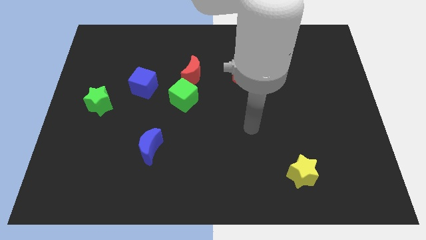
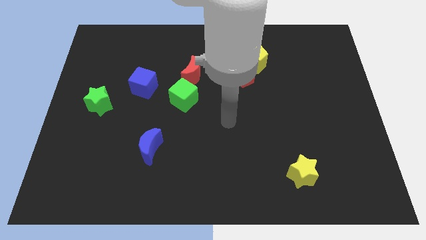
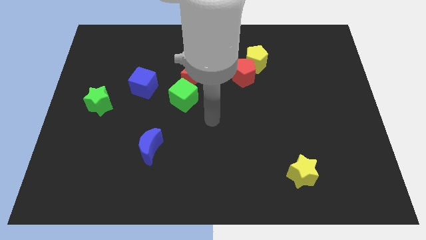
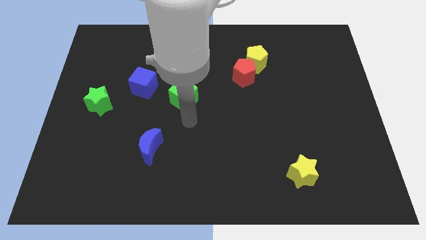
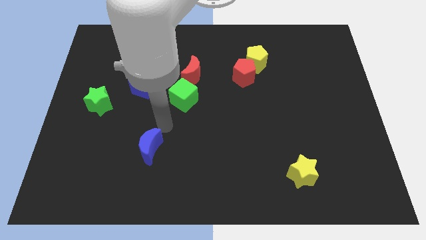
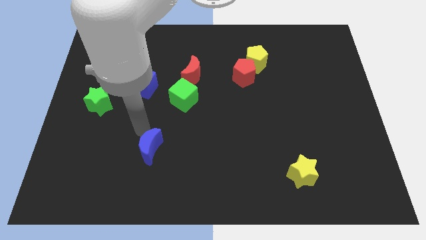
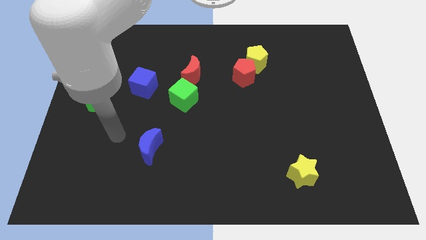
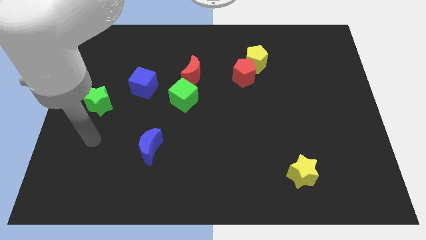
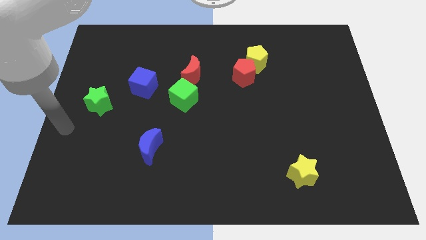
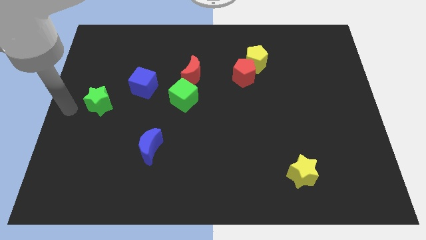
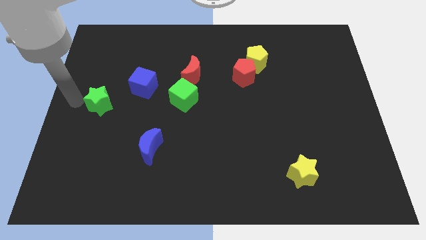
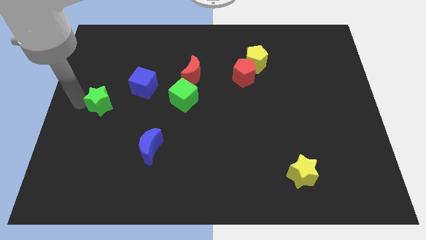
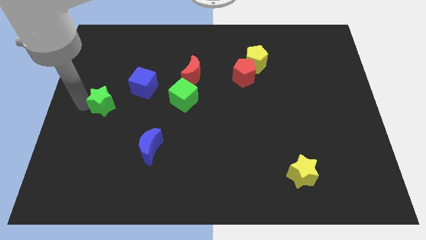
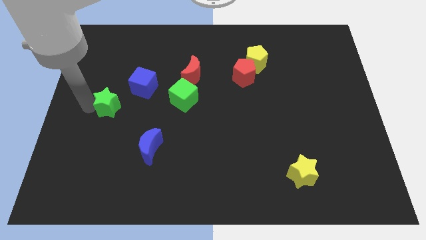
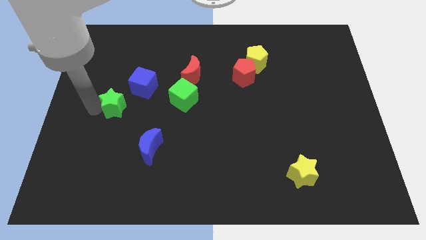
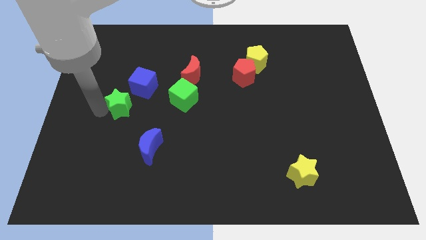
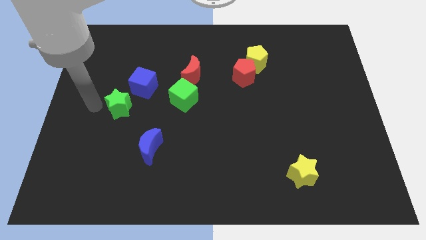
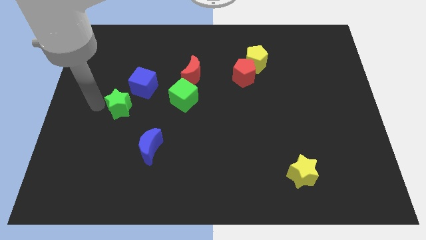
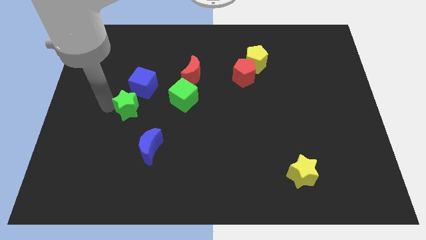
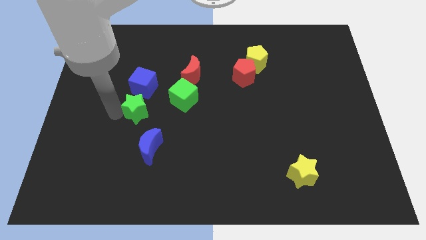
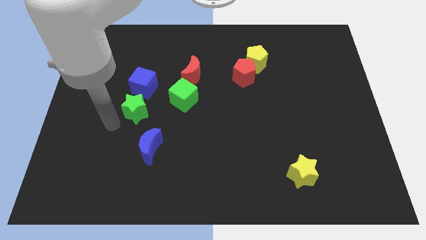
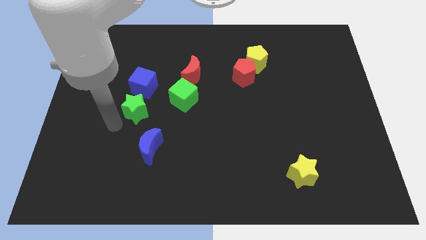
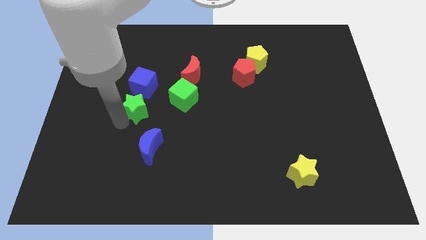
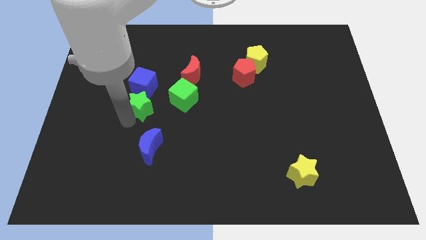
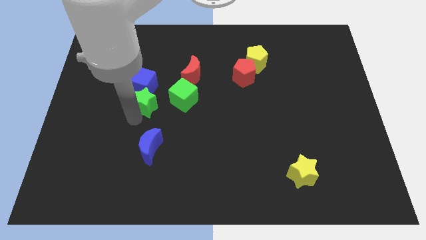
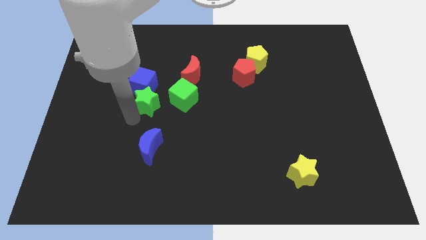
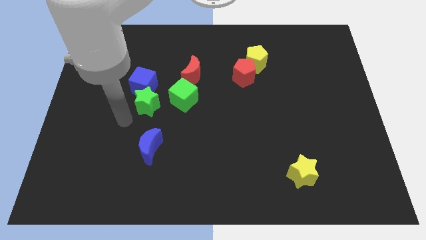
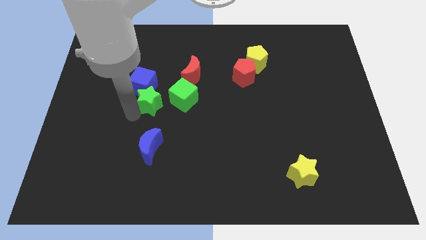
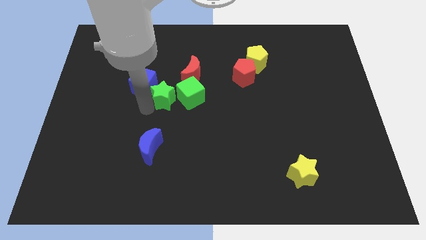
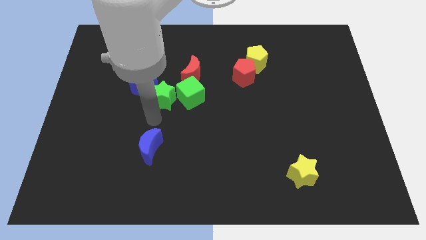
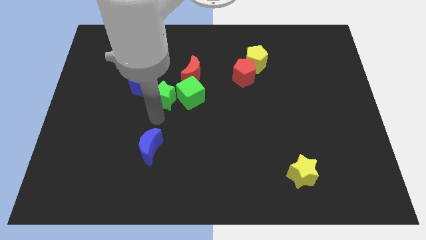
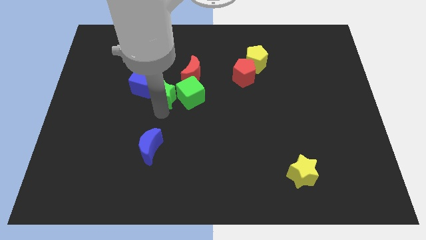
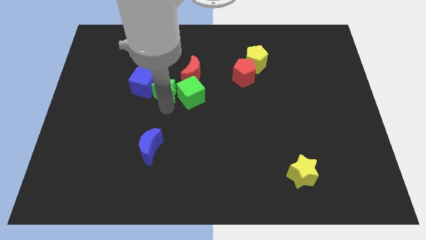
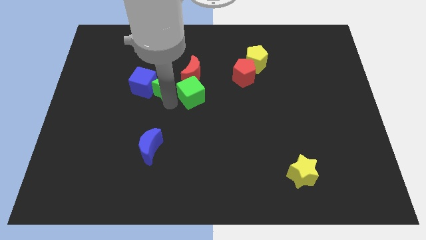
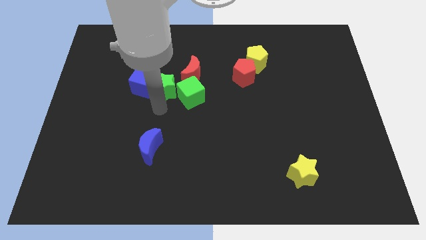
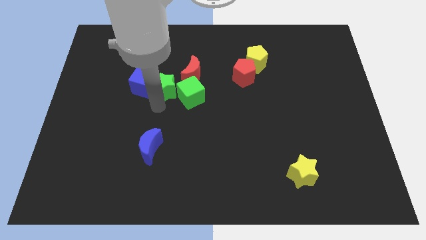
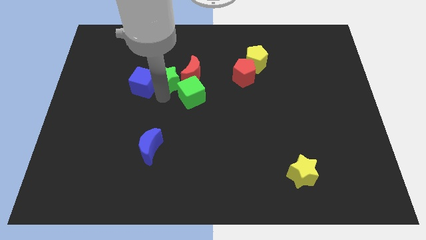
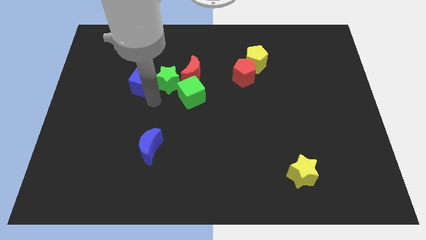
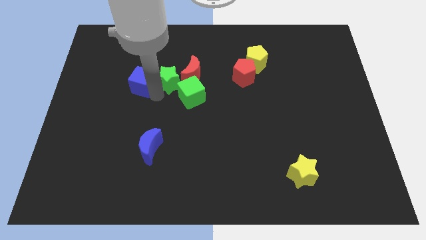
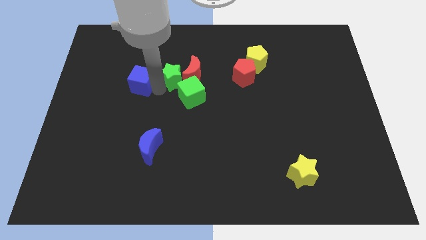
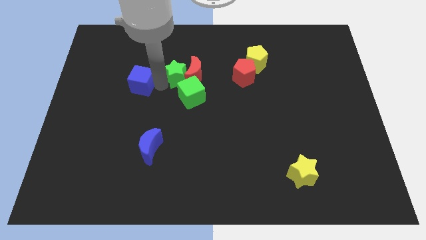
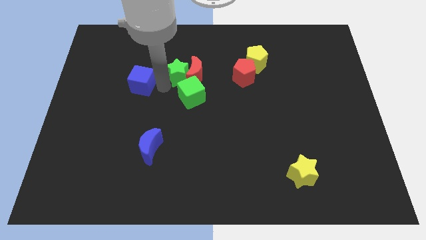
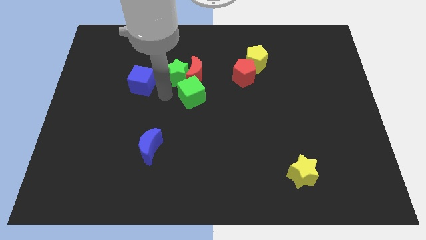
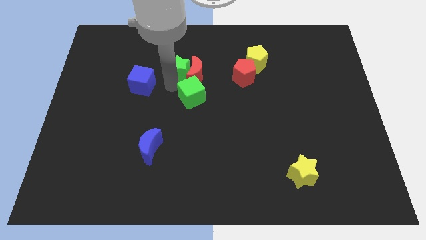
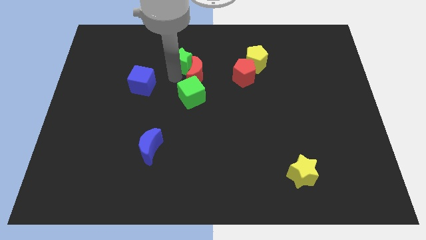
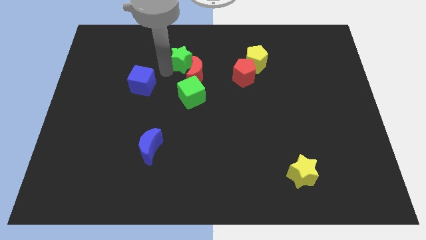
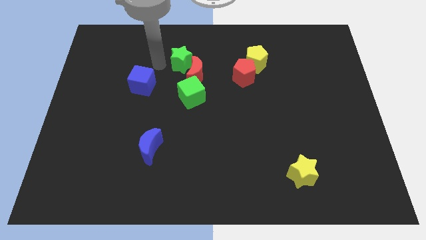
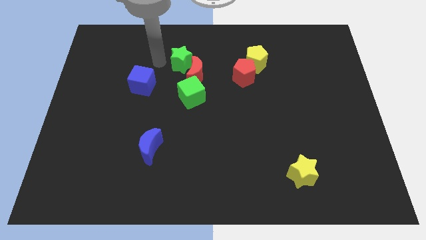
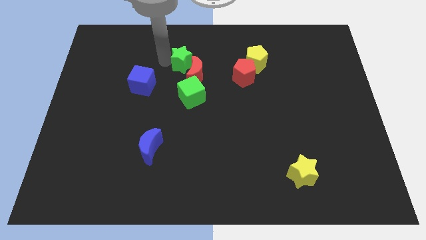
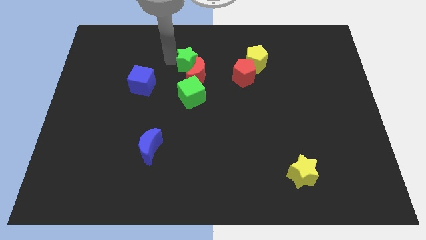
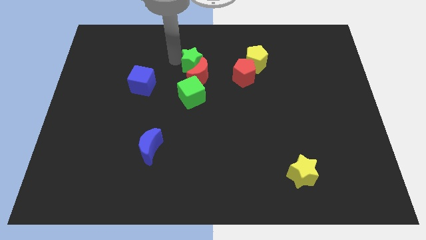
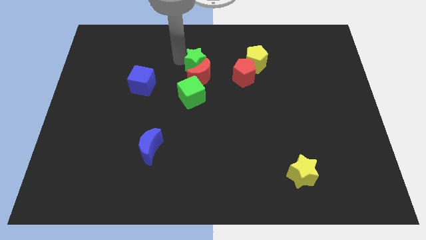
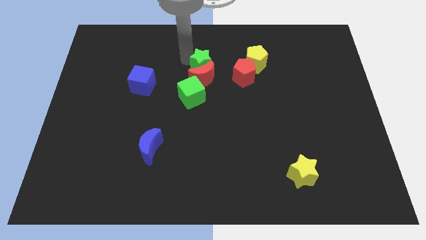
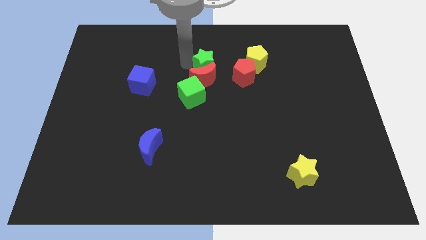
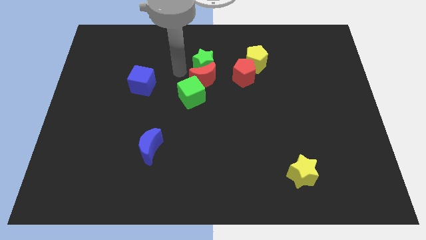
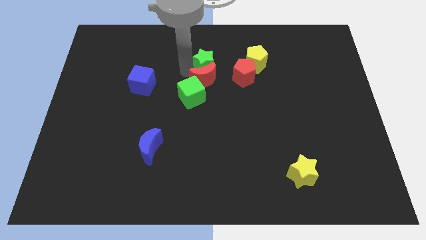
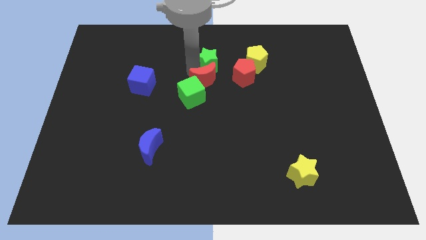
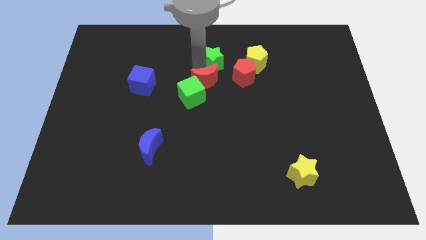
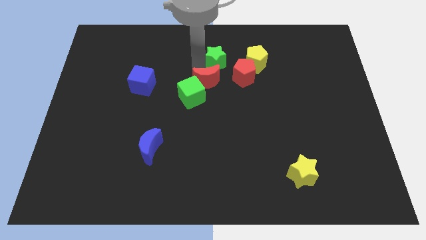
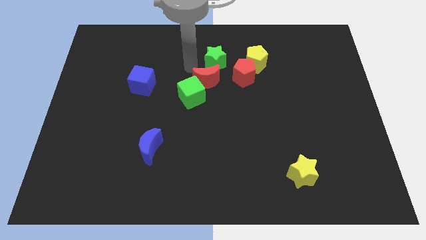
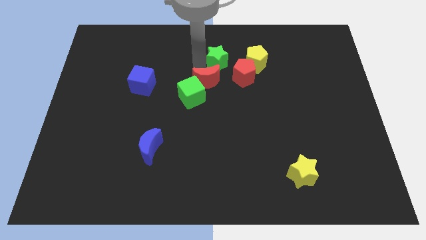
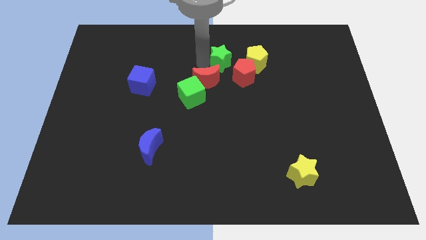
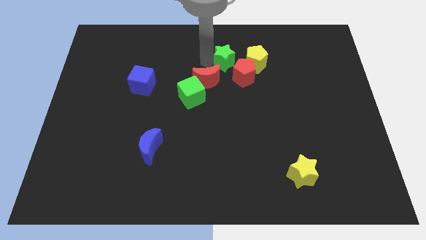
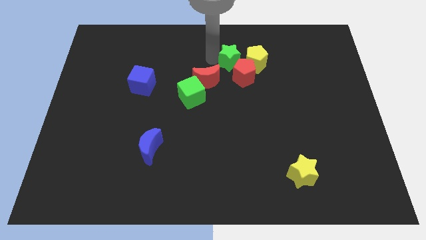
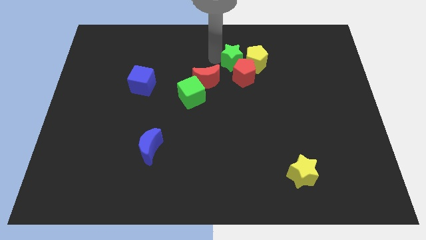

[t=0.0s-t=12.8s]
slide the green star next to the yellow pentagon
